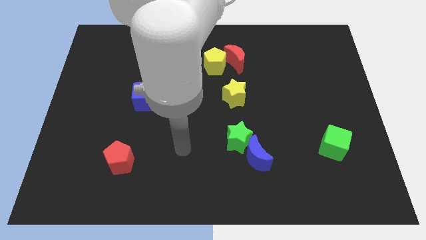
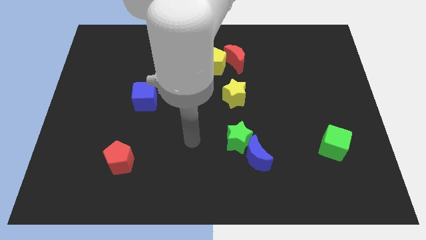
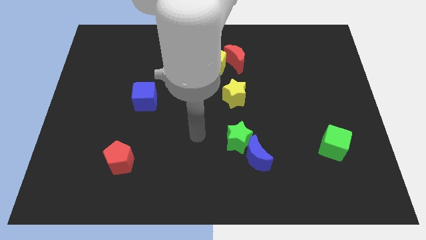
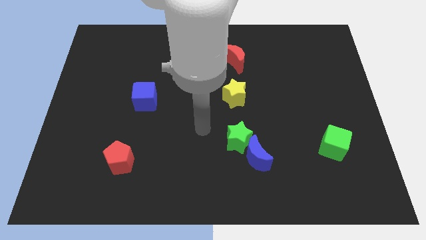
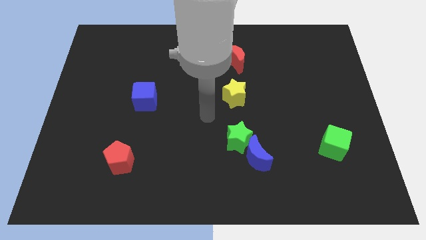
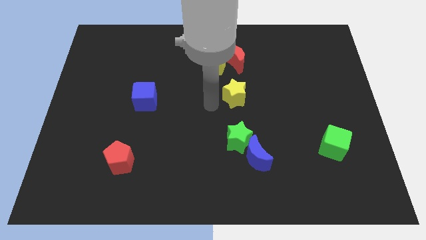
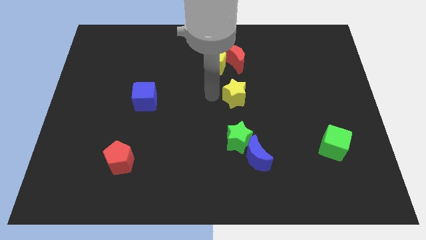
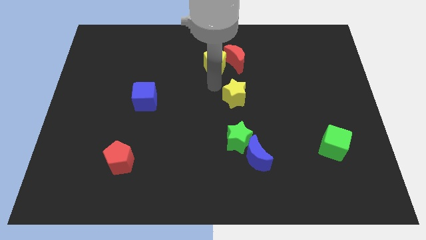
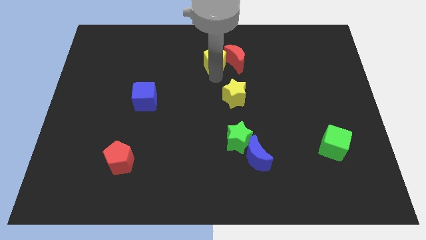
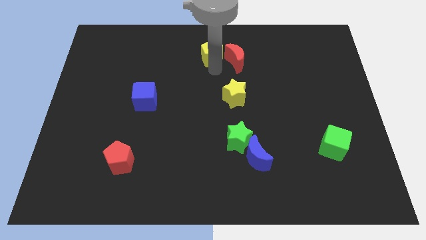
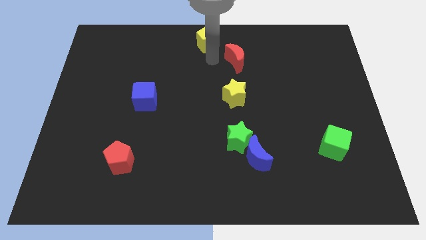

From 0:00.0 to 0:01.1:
separate the red moon from the yellow pentagon

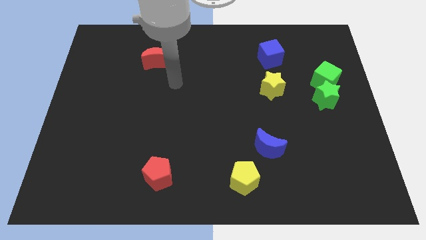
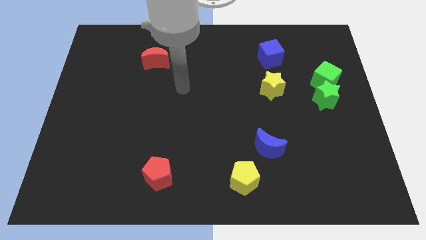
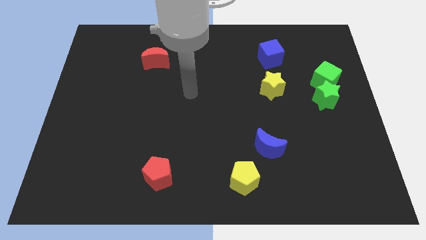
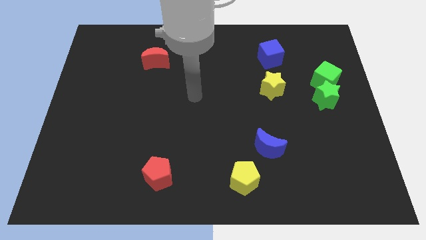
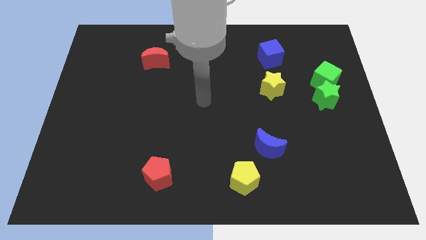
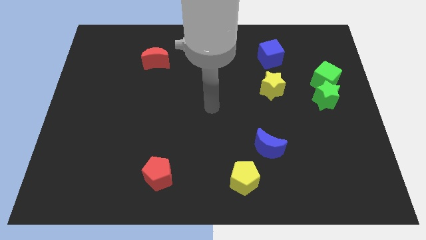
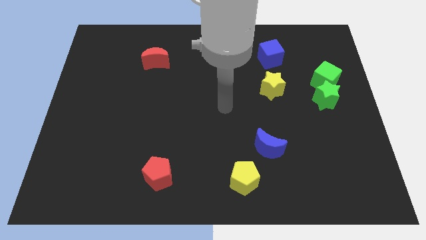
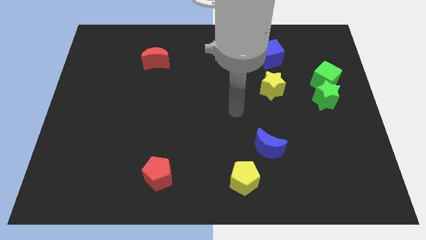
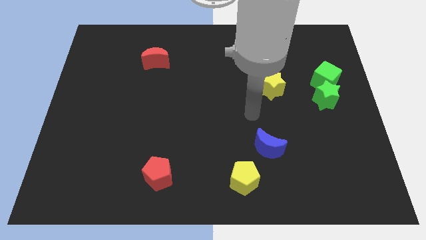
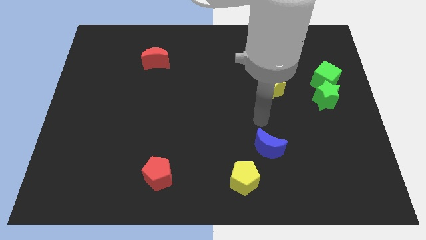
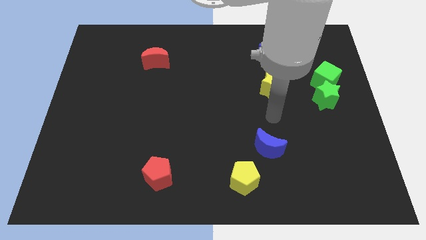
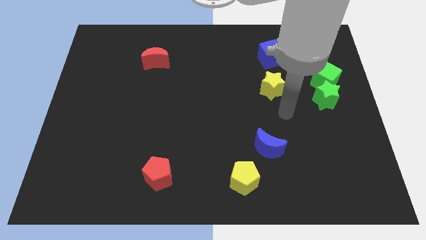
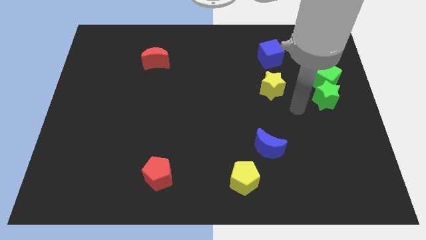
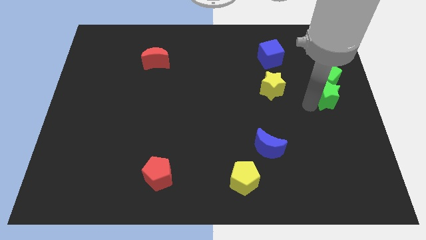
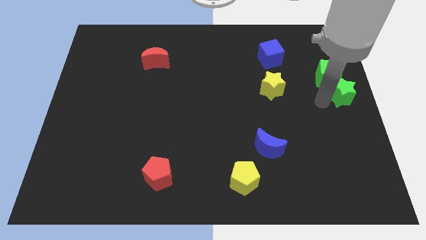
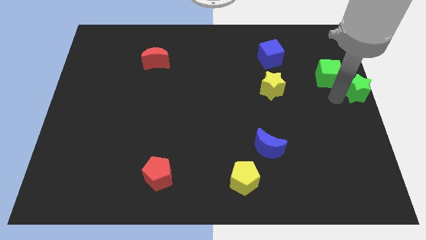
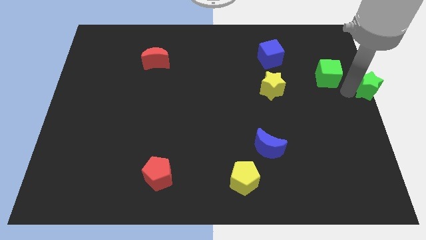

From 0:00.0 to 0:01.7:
move the green cube away from the green star

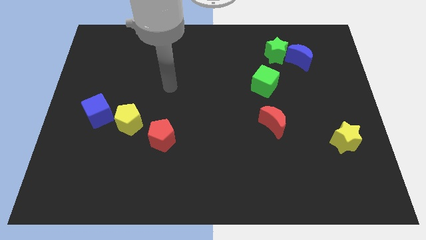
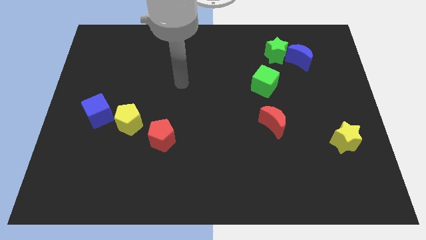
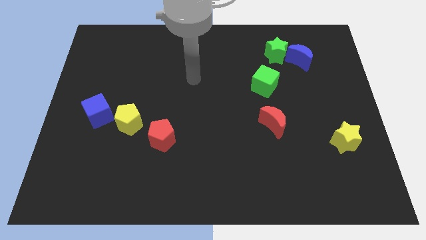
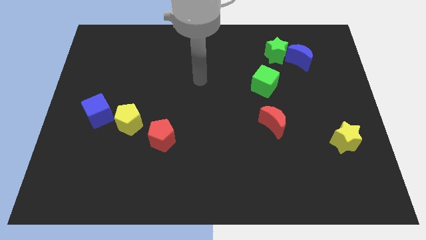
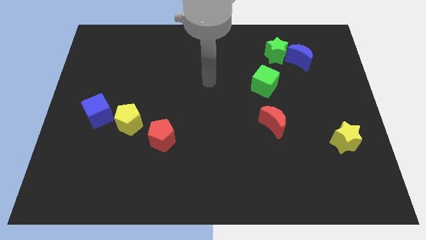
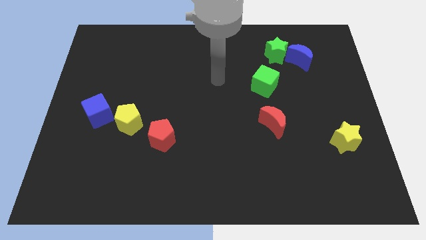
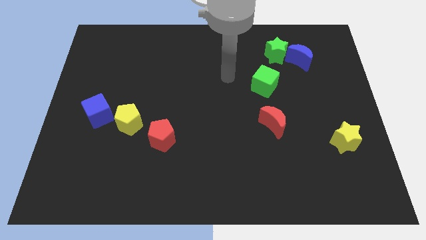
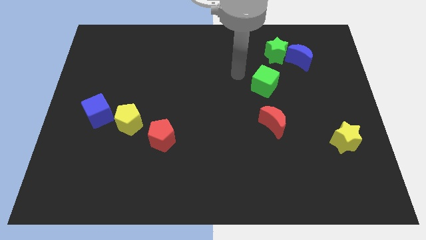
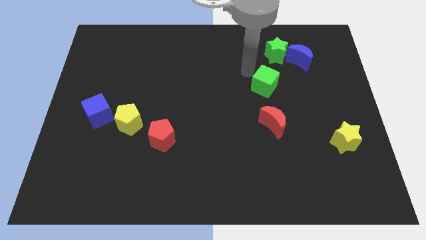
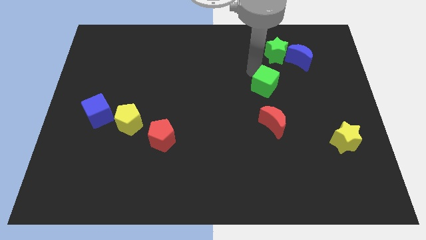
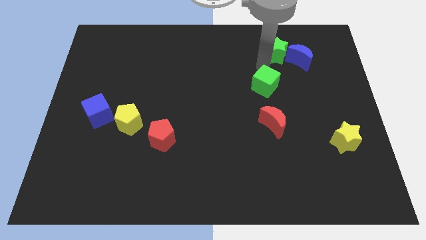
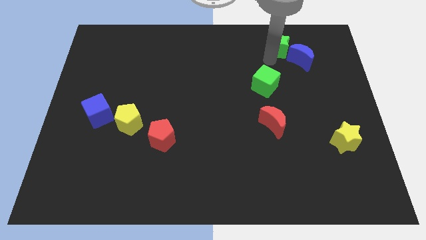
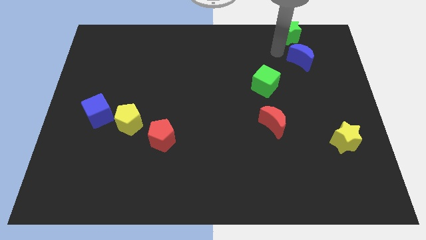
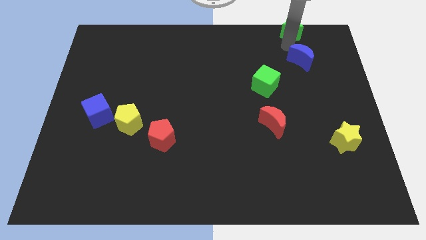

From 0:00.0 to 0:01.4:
separate the blue moon from the green star

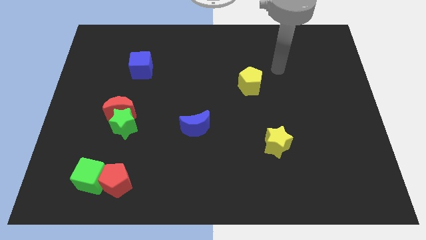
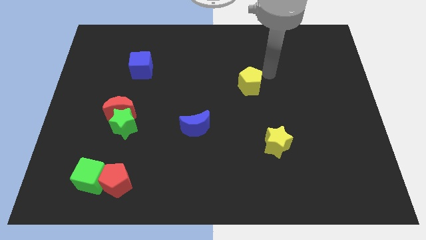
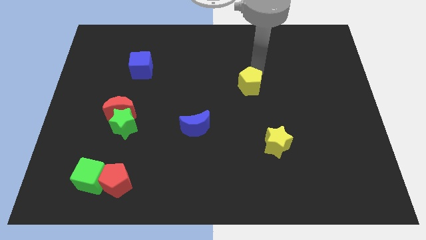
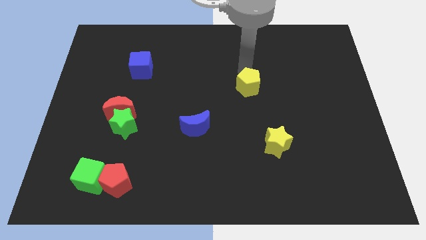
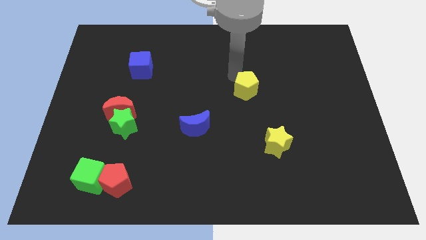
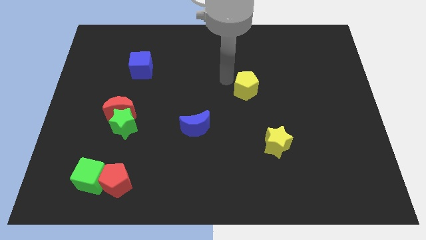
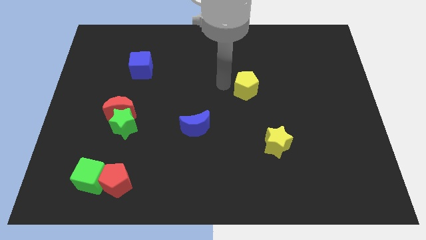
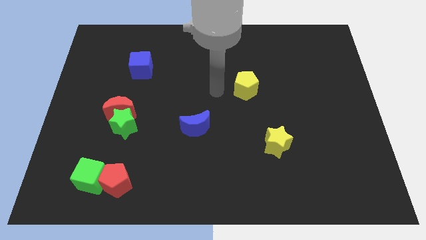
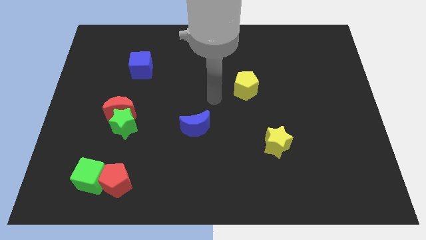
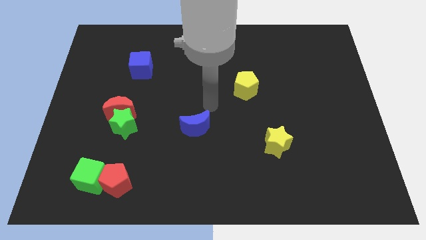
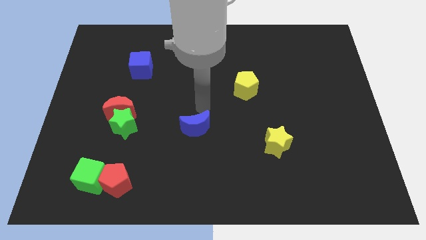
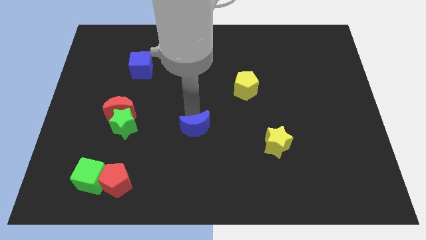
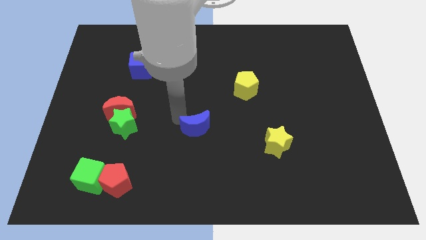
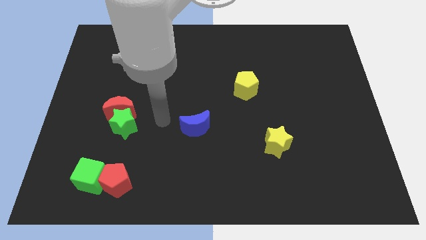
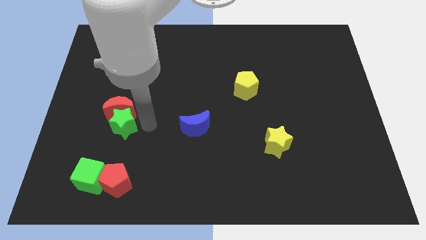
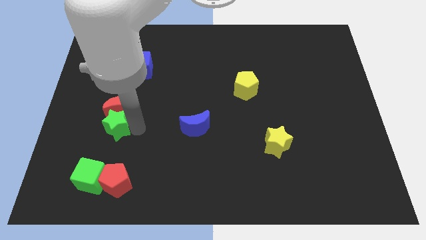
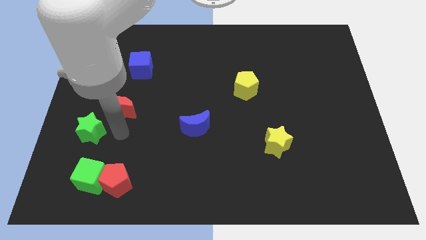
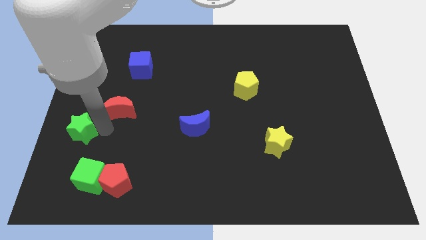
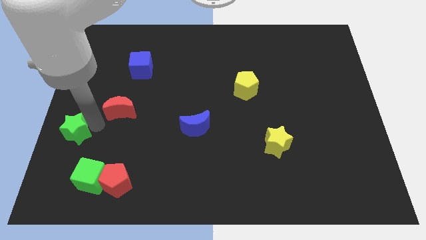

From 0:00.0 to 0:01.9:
separate the red moon from the green star

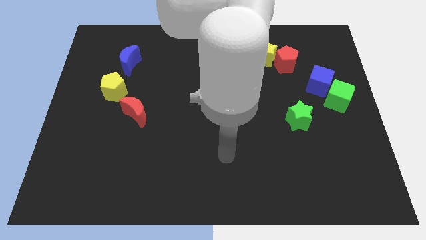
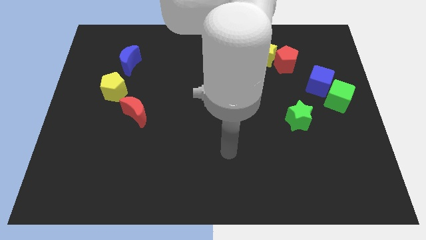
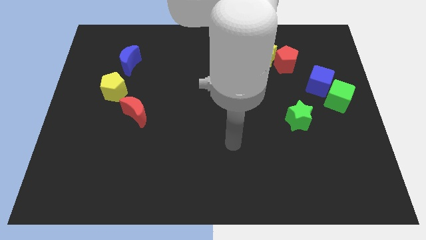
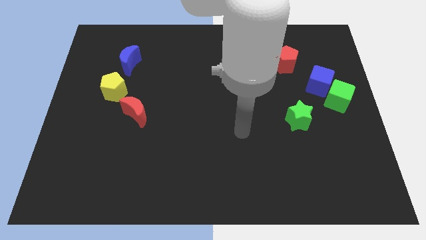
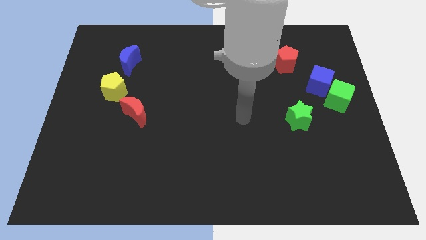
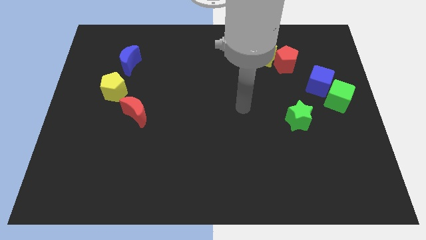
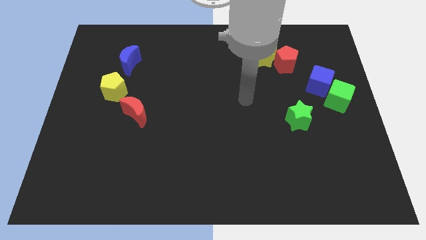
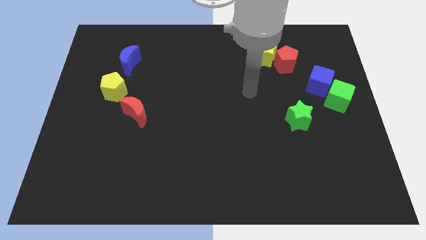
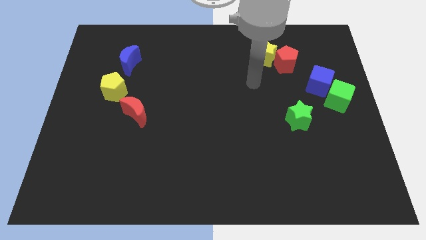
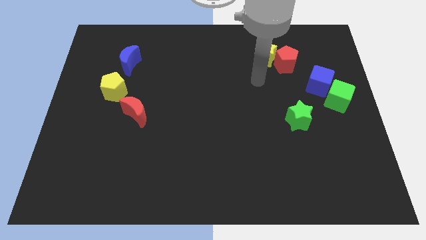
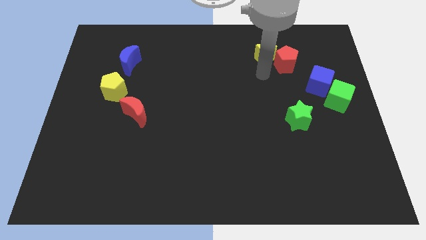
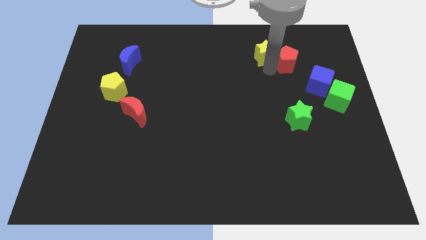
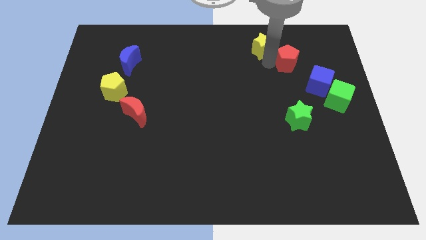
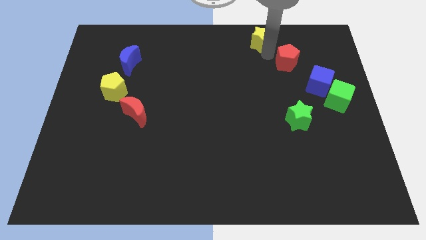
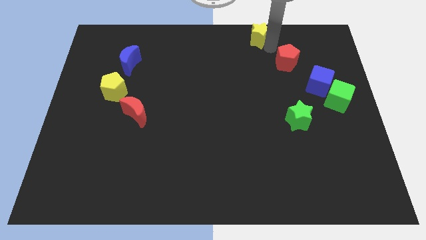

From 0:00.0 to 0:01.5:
move the red pentagon away from the yellow star

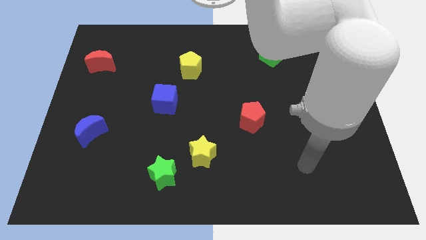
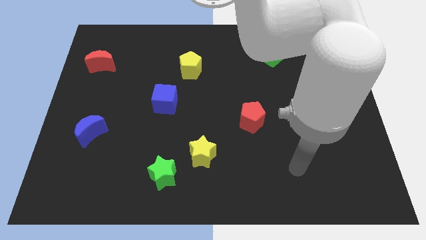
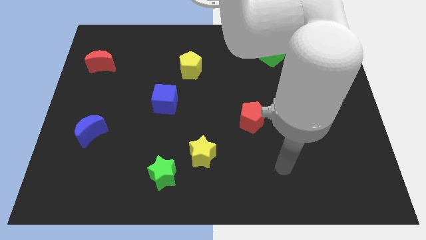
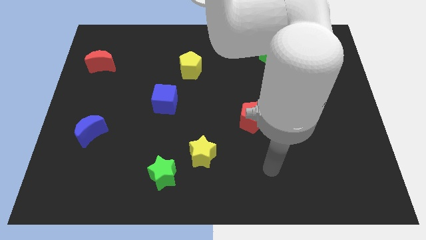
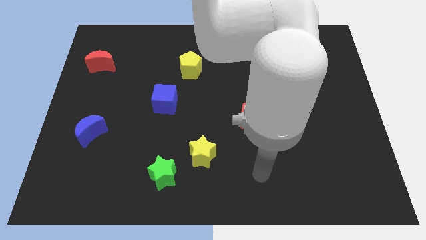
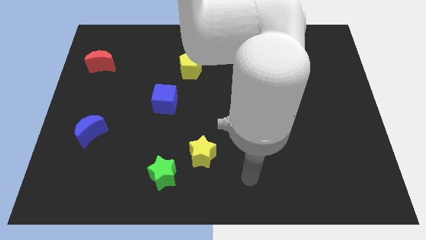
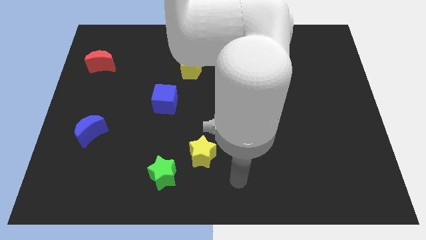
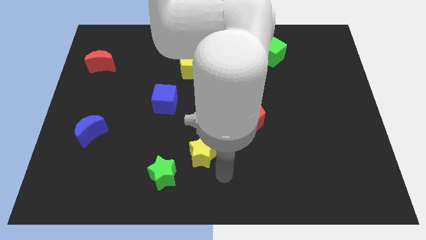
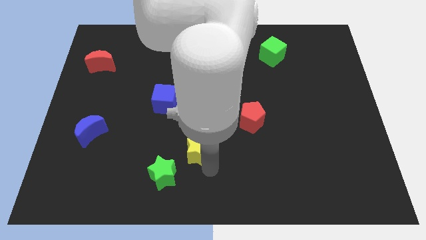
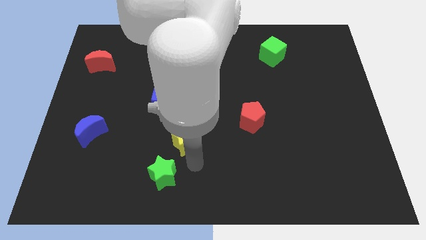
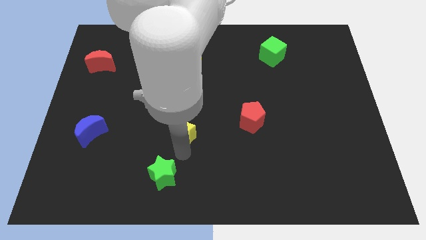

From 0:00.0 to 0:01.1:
move the green star away from the yellow star

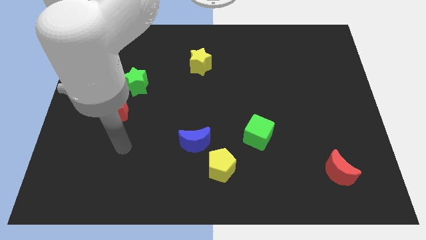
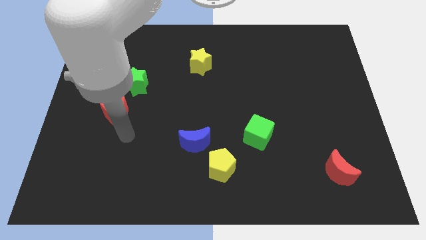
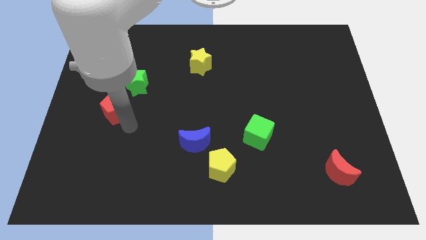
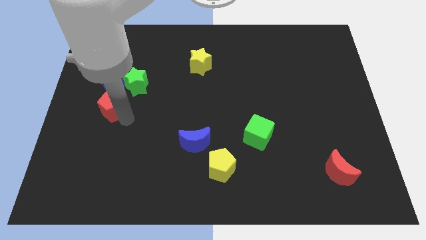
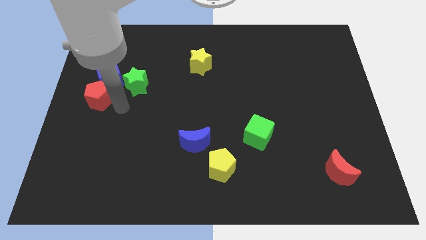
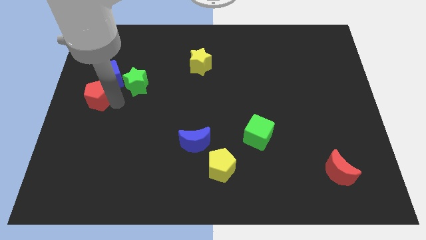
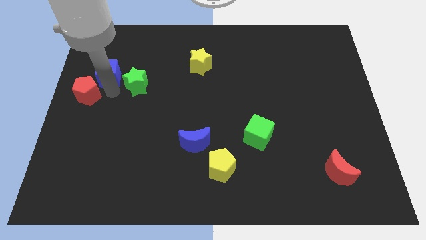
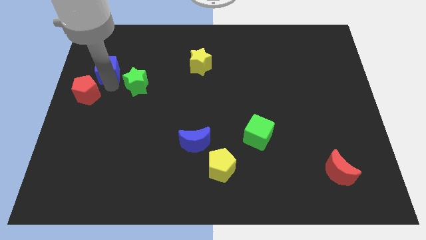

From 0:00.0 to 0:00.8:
move the green star away from the blue cube and red pentagon
